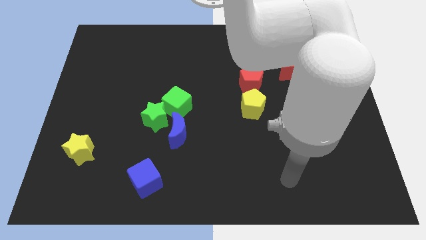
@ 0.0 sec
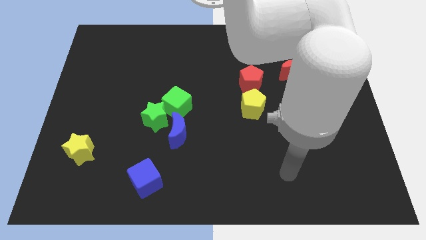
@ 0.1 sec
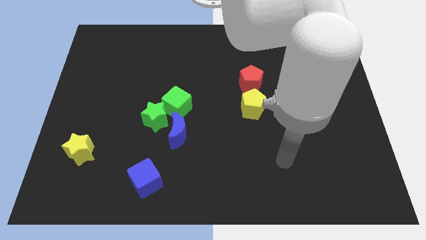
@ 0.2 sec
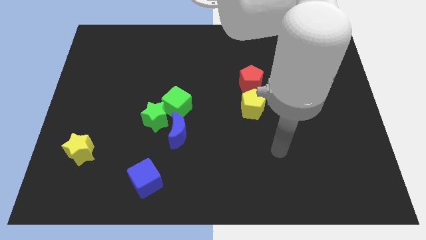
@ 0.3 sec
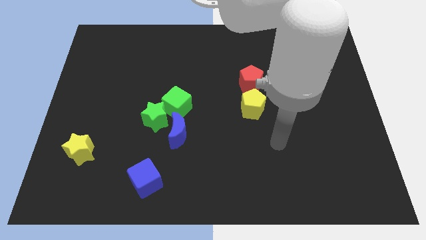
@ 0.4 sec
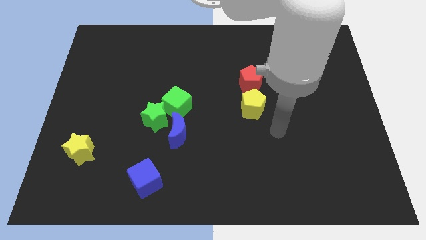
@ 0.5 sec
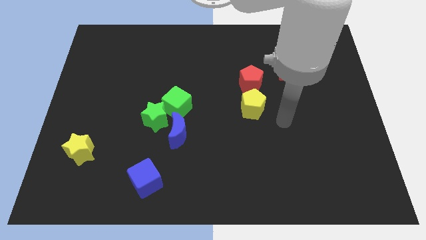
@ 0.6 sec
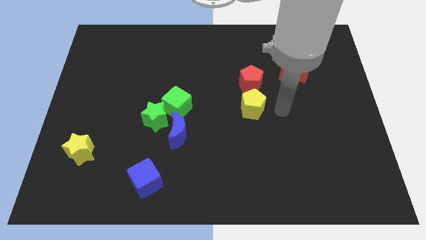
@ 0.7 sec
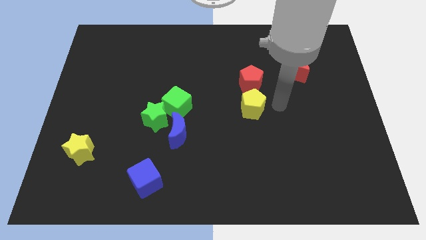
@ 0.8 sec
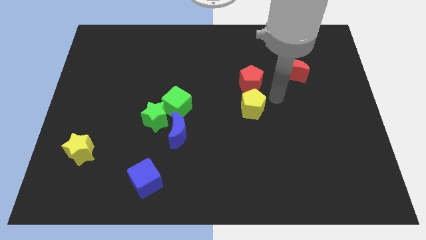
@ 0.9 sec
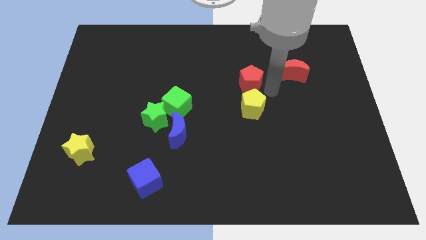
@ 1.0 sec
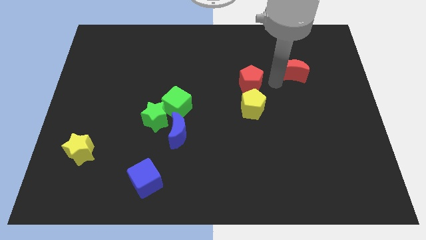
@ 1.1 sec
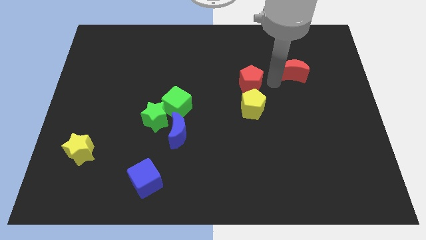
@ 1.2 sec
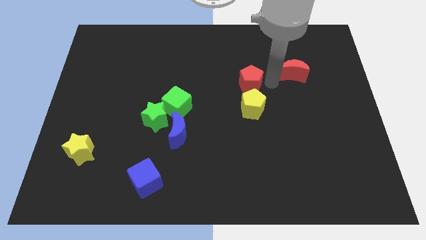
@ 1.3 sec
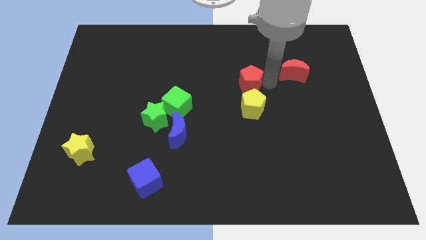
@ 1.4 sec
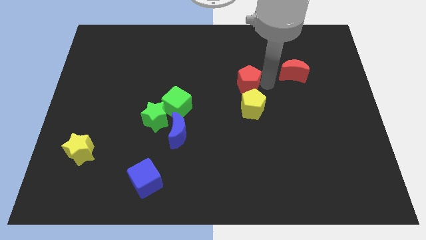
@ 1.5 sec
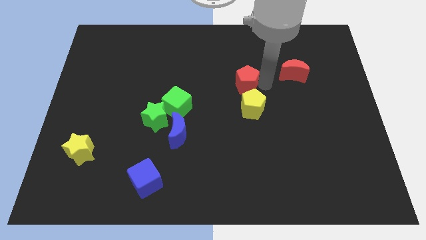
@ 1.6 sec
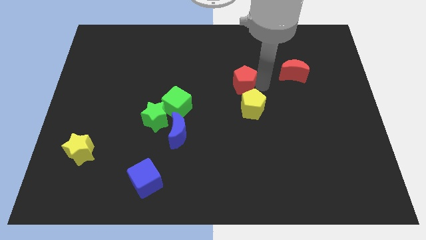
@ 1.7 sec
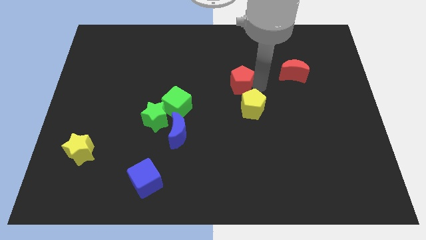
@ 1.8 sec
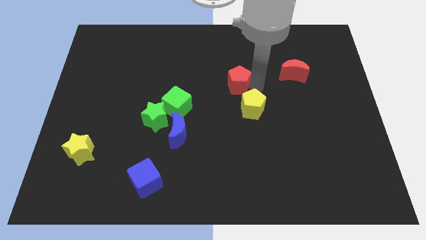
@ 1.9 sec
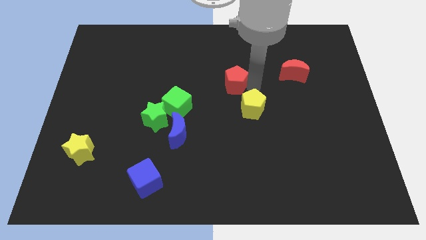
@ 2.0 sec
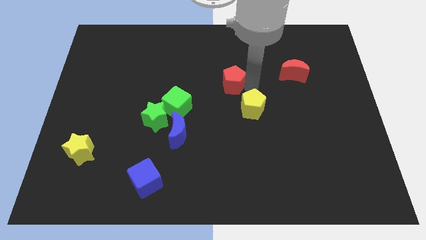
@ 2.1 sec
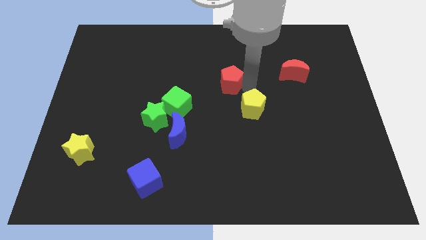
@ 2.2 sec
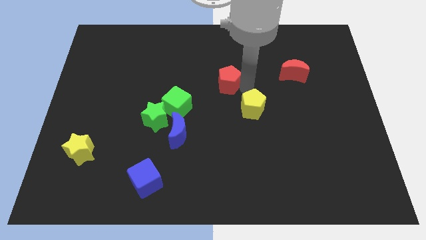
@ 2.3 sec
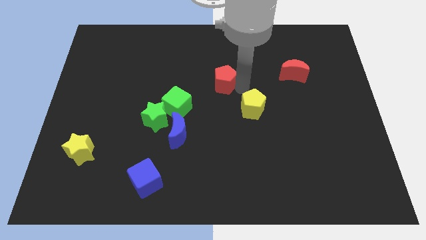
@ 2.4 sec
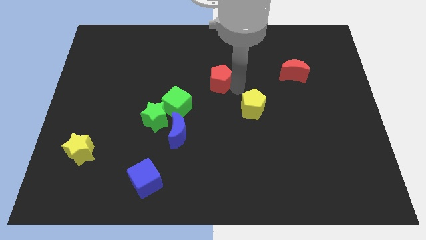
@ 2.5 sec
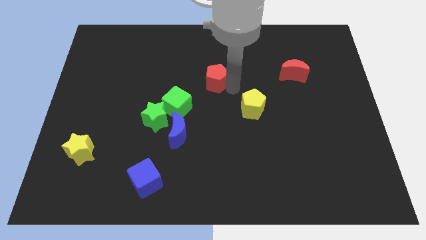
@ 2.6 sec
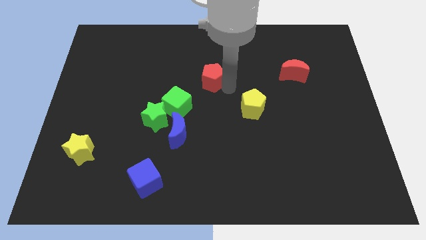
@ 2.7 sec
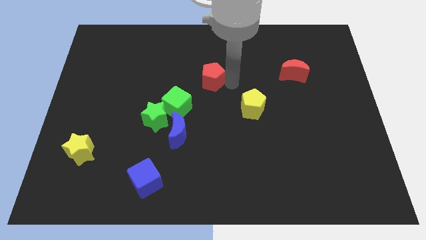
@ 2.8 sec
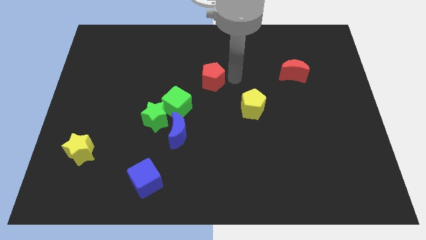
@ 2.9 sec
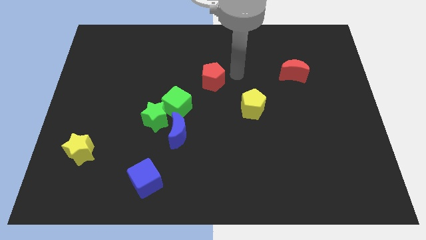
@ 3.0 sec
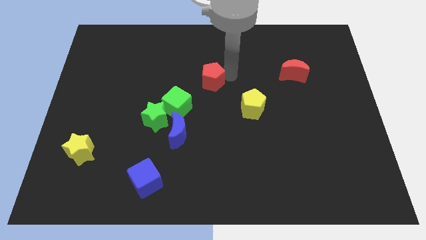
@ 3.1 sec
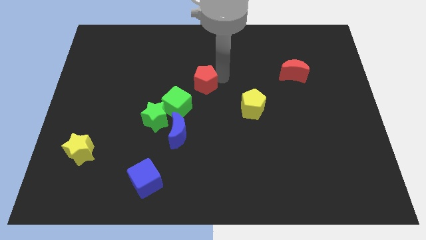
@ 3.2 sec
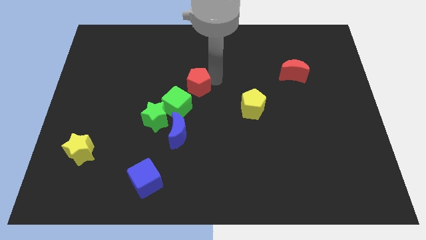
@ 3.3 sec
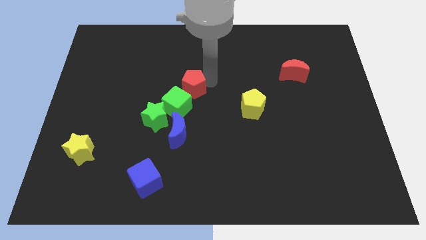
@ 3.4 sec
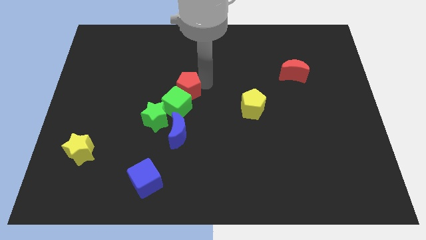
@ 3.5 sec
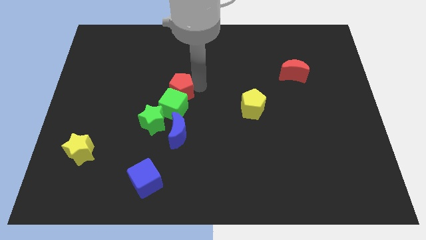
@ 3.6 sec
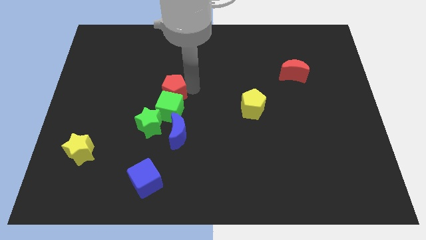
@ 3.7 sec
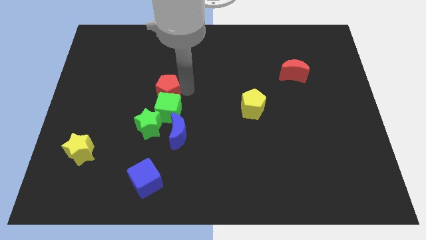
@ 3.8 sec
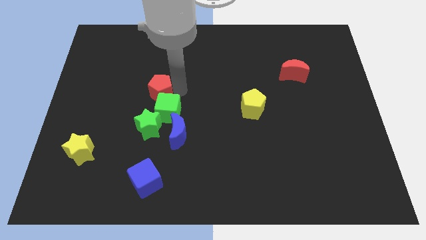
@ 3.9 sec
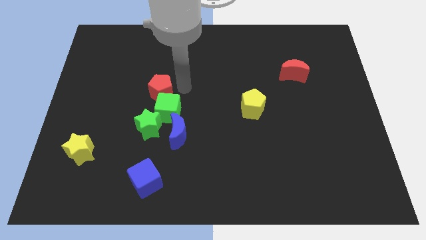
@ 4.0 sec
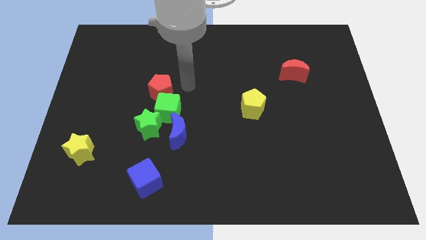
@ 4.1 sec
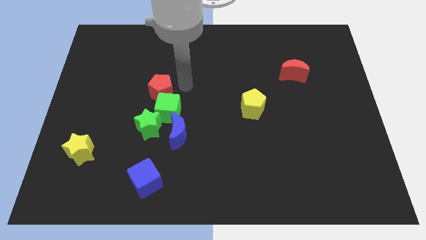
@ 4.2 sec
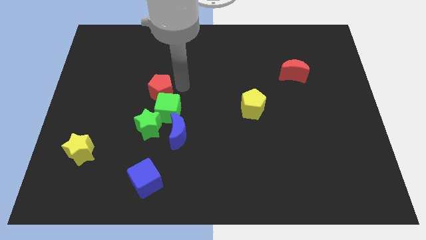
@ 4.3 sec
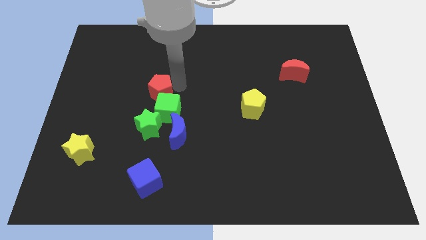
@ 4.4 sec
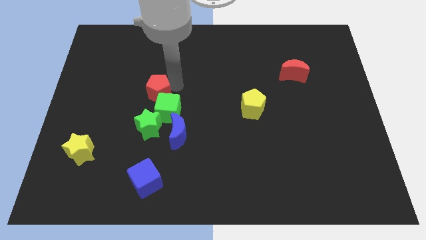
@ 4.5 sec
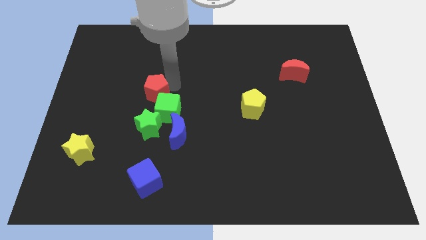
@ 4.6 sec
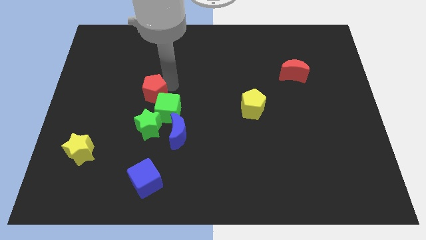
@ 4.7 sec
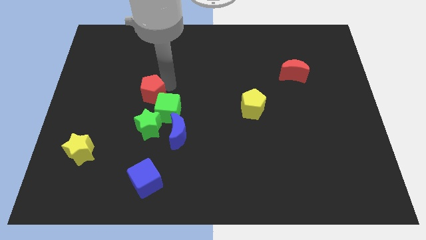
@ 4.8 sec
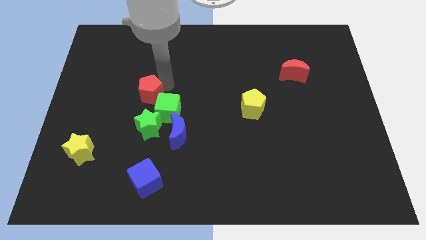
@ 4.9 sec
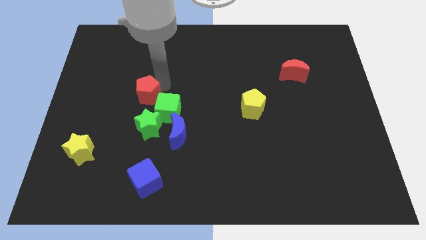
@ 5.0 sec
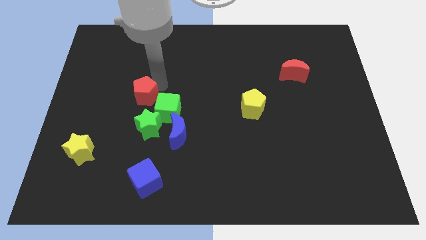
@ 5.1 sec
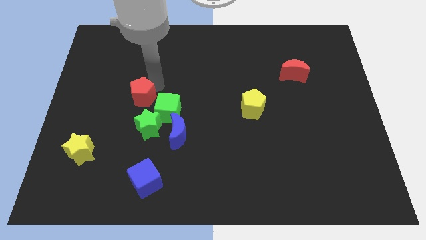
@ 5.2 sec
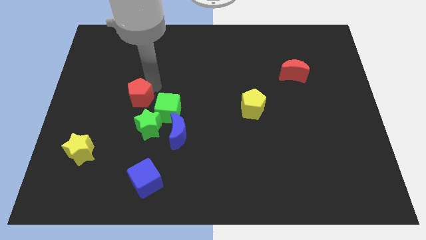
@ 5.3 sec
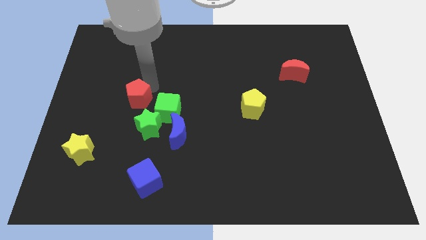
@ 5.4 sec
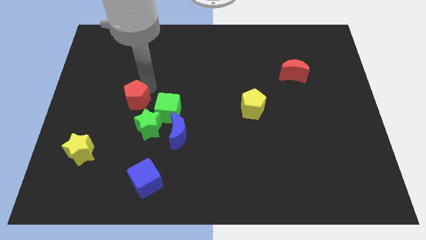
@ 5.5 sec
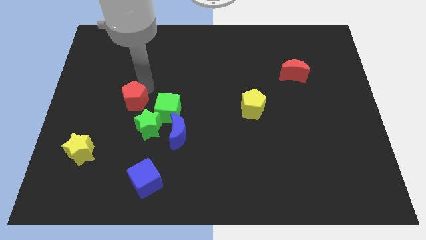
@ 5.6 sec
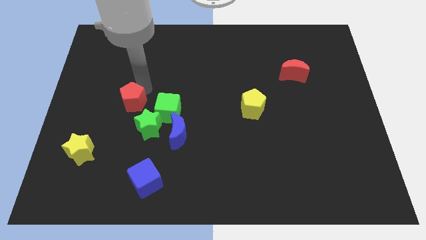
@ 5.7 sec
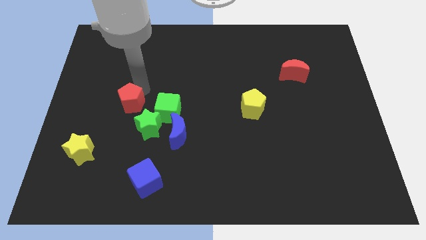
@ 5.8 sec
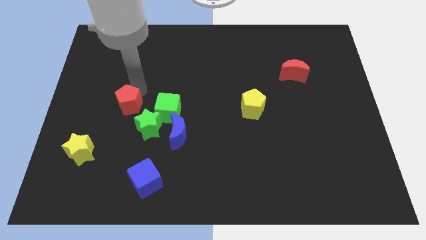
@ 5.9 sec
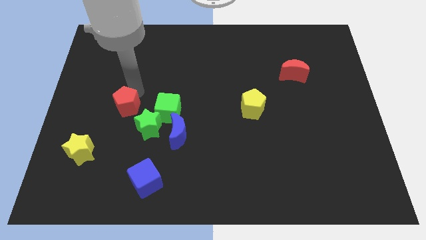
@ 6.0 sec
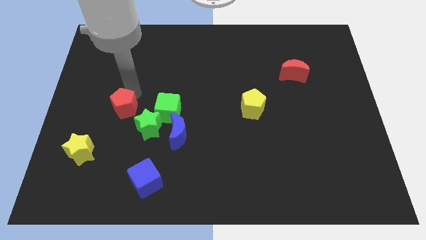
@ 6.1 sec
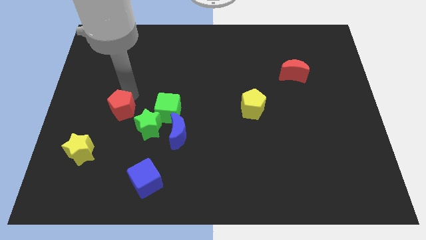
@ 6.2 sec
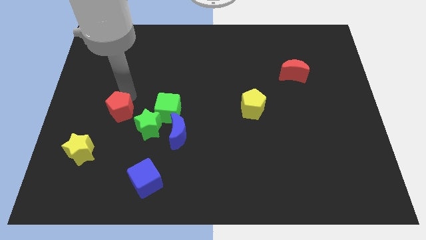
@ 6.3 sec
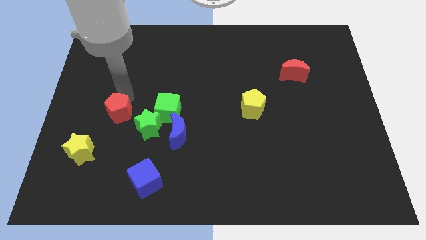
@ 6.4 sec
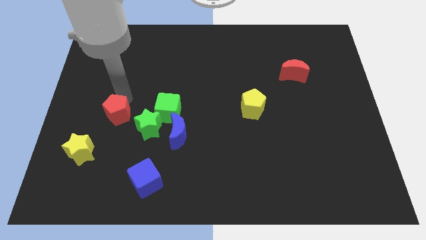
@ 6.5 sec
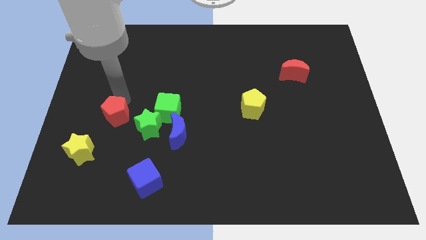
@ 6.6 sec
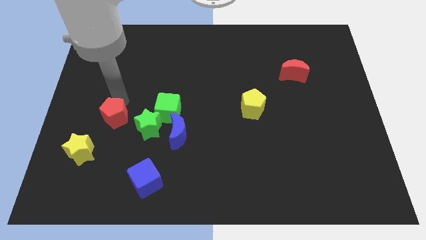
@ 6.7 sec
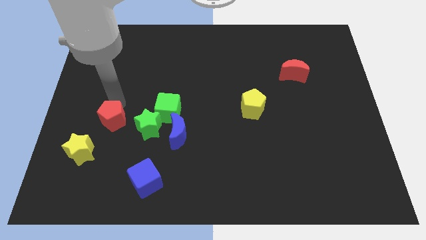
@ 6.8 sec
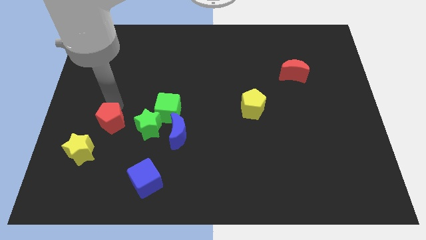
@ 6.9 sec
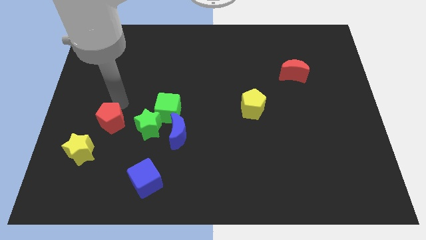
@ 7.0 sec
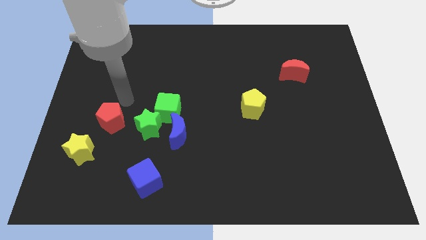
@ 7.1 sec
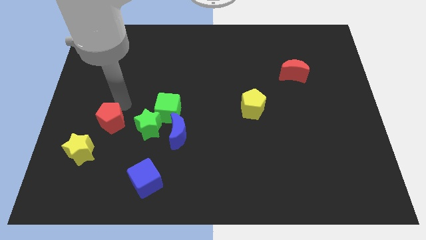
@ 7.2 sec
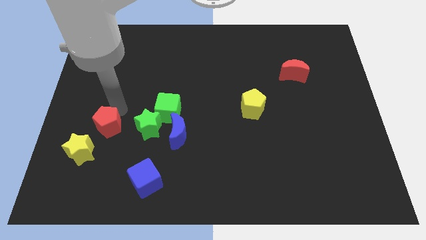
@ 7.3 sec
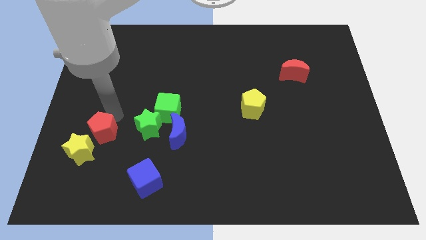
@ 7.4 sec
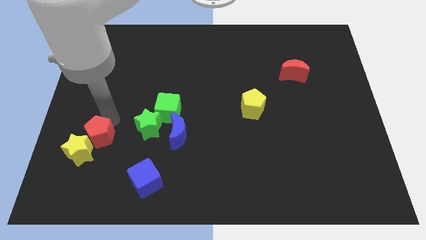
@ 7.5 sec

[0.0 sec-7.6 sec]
put the red pentagon to the yellow star
